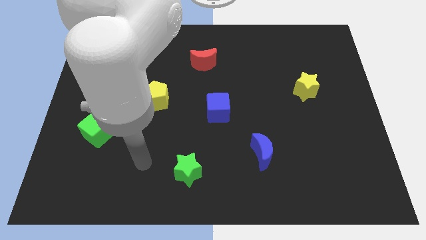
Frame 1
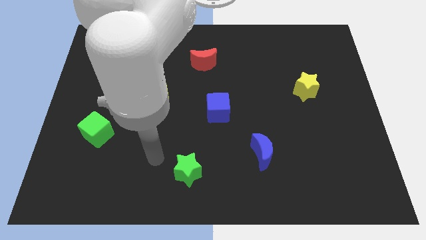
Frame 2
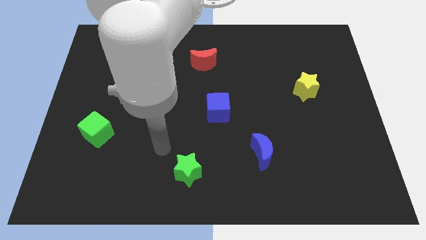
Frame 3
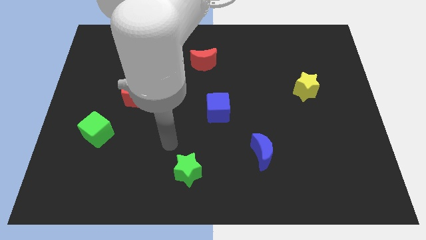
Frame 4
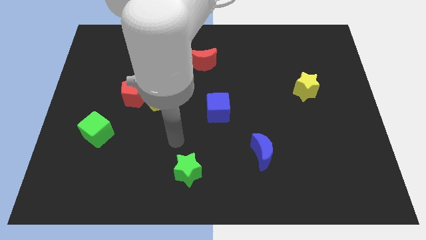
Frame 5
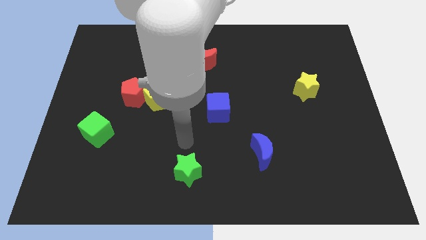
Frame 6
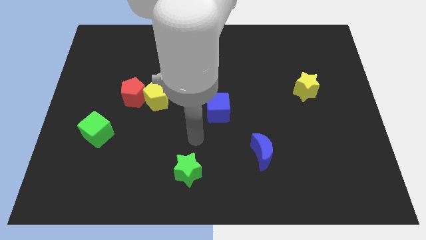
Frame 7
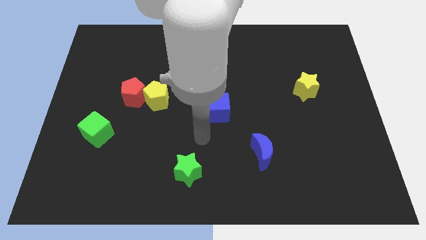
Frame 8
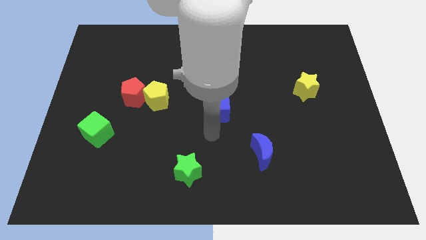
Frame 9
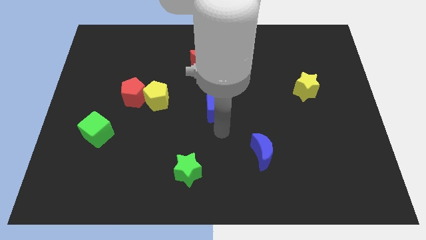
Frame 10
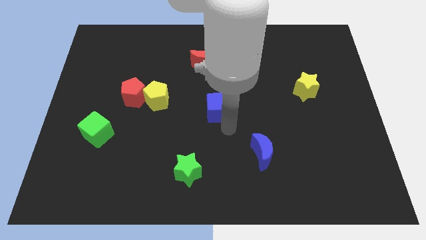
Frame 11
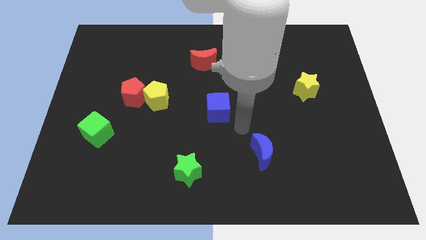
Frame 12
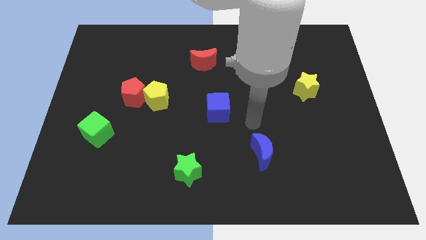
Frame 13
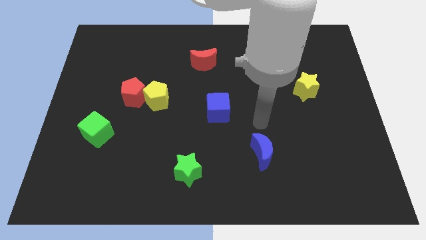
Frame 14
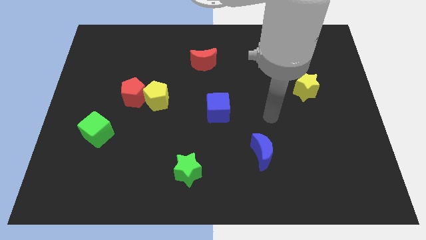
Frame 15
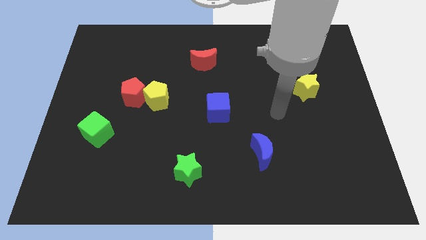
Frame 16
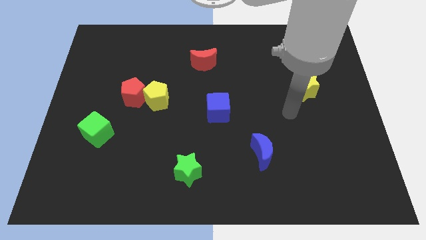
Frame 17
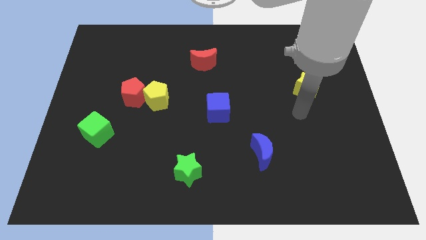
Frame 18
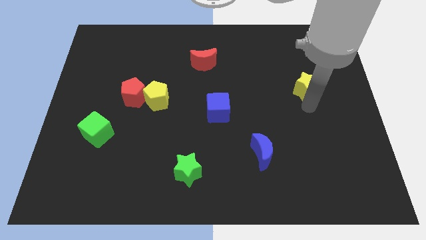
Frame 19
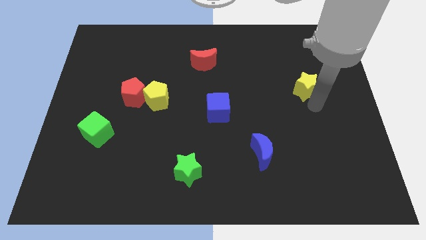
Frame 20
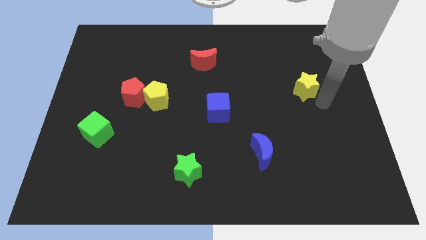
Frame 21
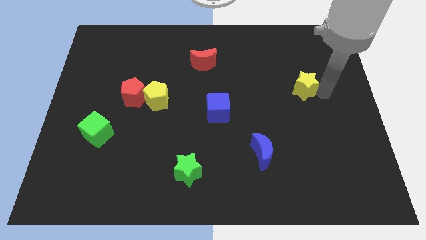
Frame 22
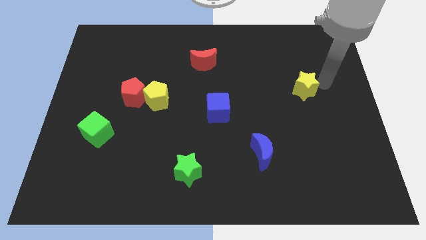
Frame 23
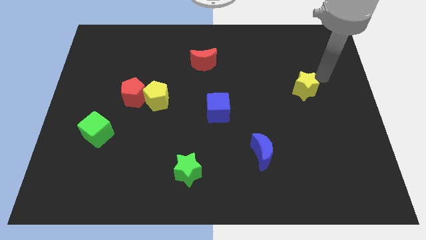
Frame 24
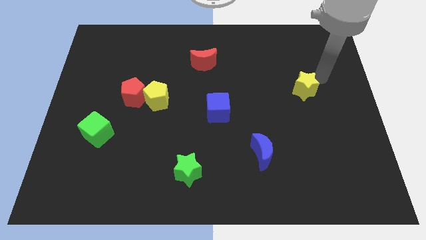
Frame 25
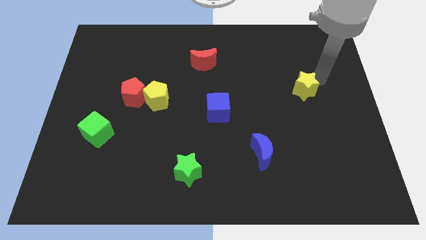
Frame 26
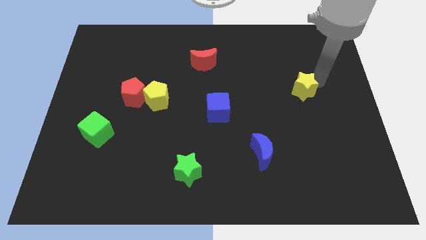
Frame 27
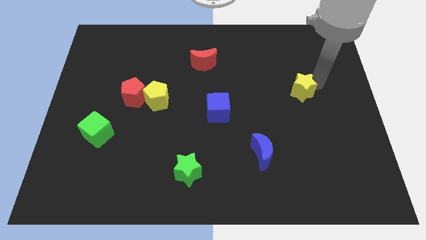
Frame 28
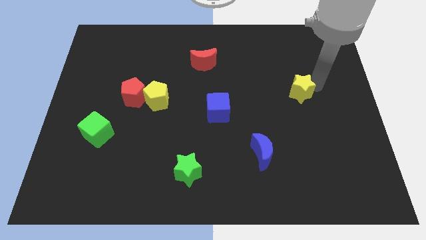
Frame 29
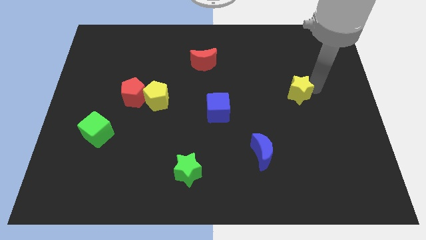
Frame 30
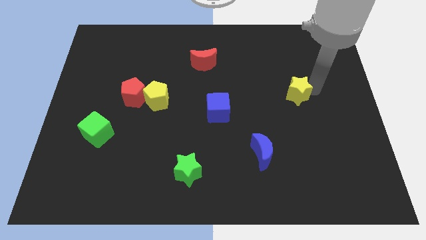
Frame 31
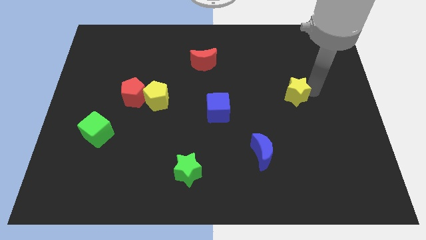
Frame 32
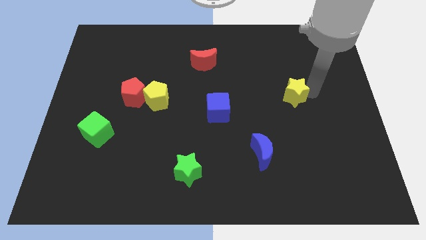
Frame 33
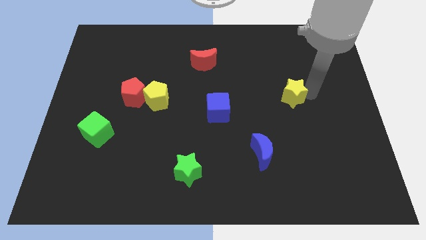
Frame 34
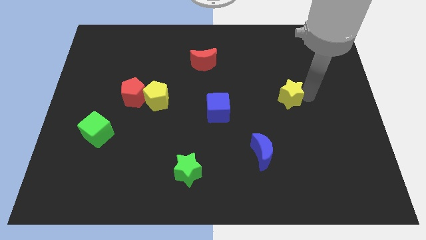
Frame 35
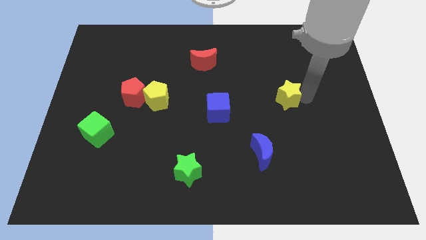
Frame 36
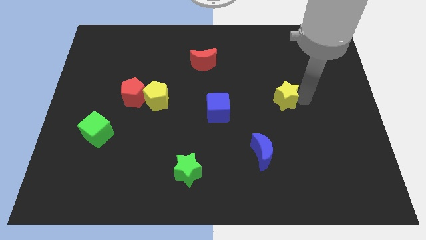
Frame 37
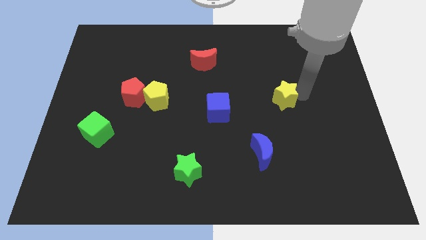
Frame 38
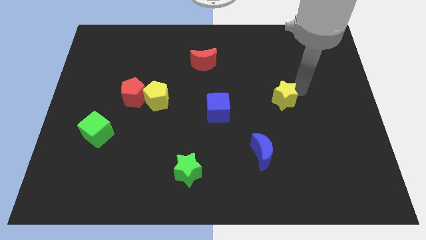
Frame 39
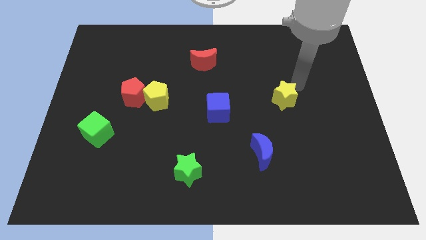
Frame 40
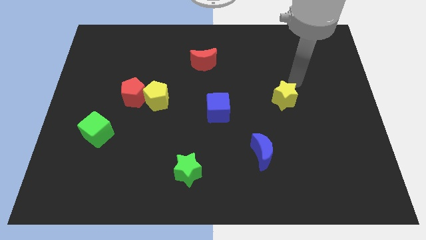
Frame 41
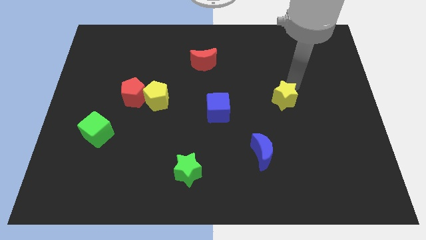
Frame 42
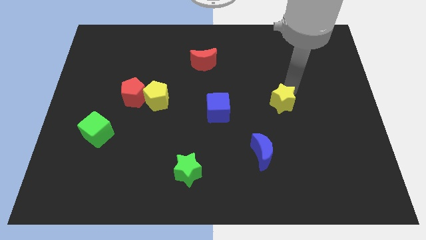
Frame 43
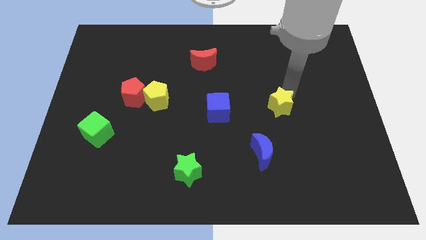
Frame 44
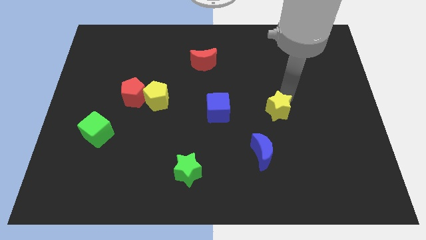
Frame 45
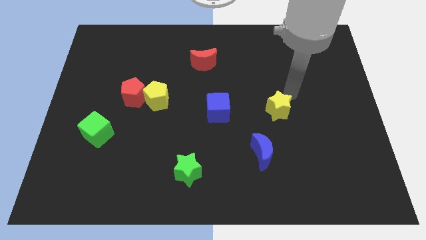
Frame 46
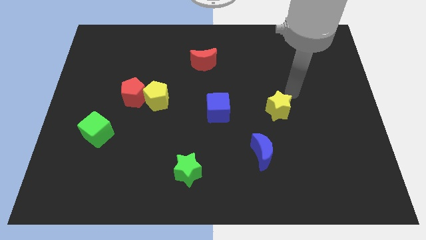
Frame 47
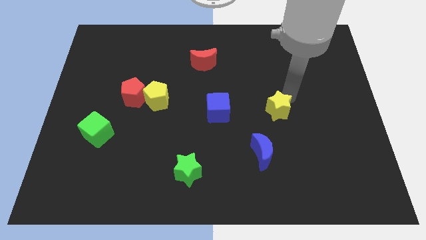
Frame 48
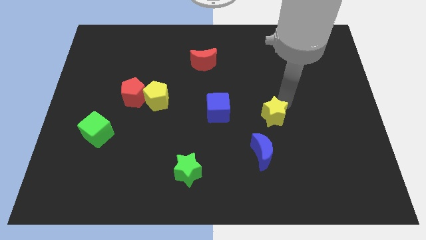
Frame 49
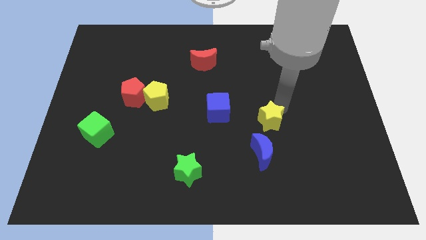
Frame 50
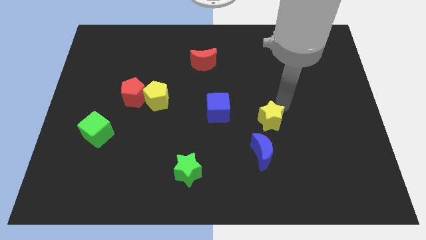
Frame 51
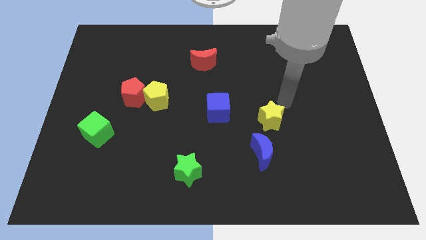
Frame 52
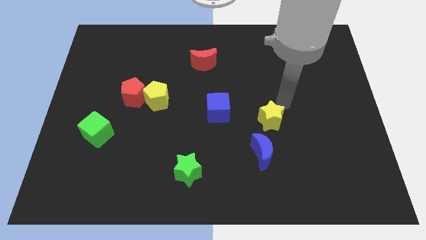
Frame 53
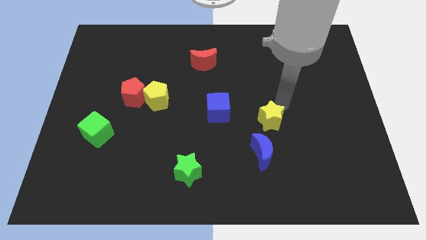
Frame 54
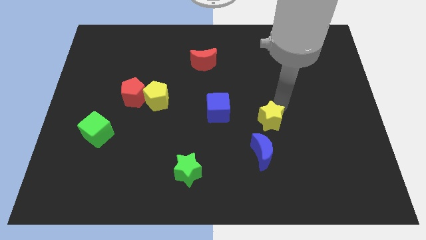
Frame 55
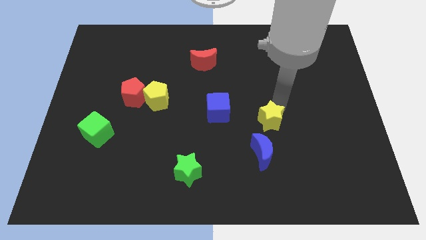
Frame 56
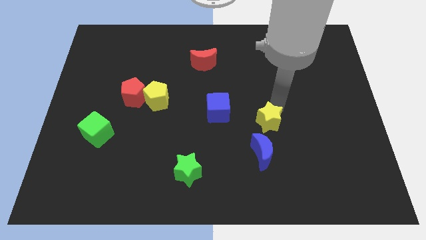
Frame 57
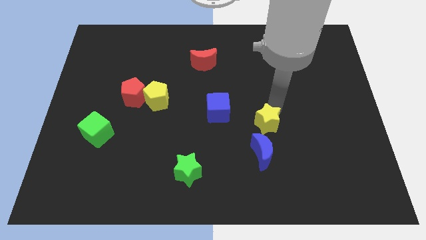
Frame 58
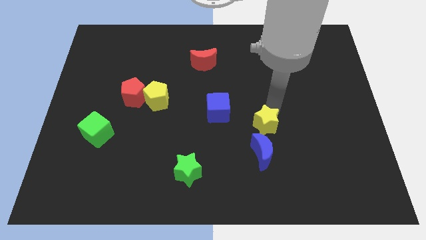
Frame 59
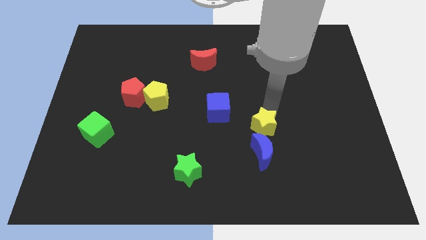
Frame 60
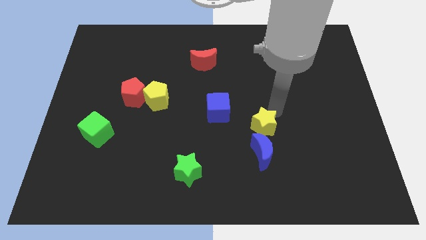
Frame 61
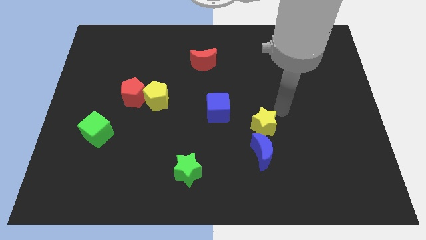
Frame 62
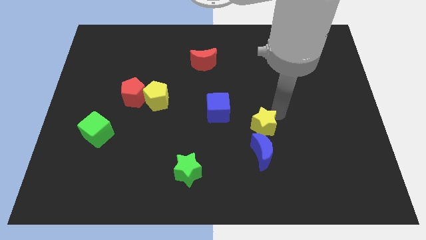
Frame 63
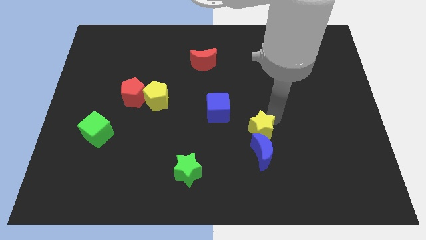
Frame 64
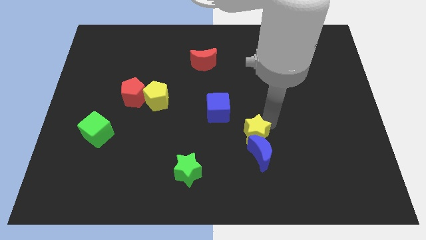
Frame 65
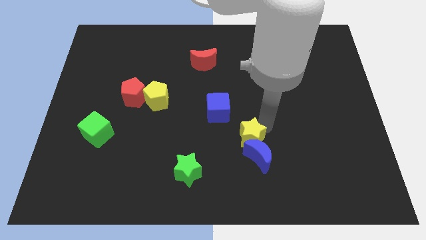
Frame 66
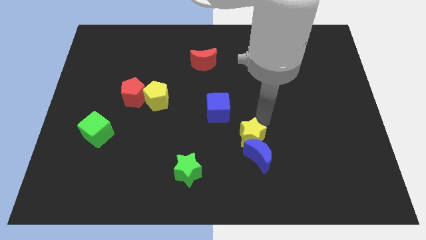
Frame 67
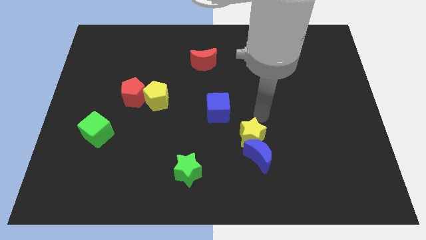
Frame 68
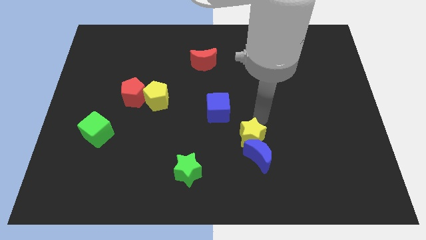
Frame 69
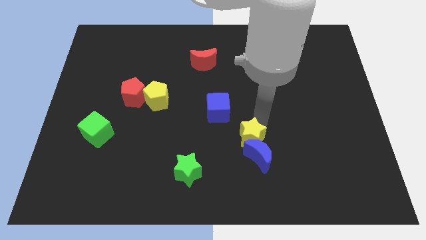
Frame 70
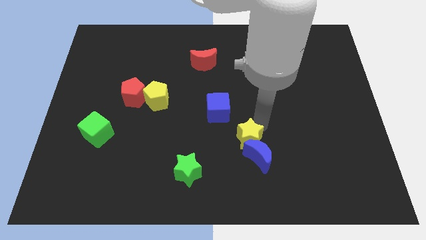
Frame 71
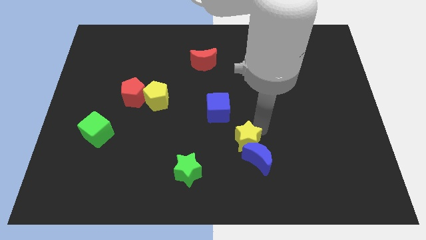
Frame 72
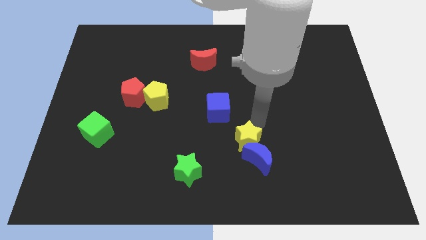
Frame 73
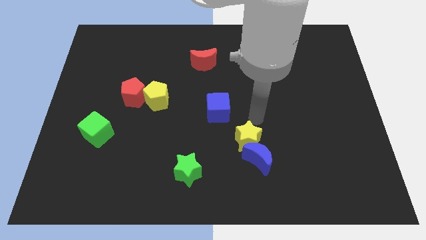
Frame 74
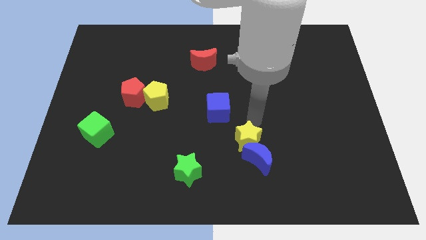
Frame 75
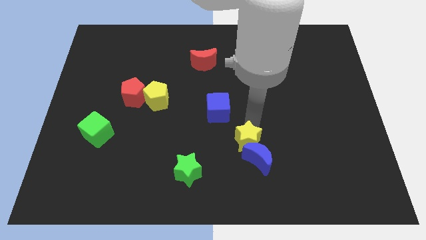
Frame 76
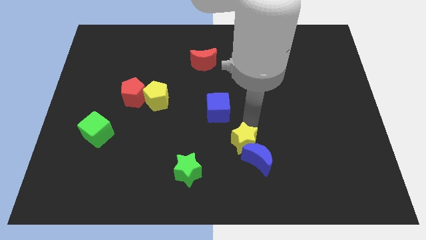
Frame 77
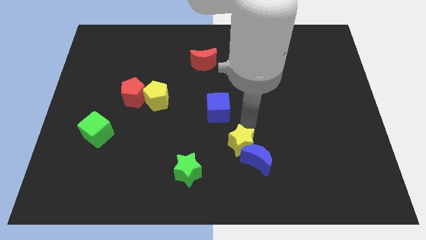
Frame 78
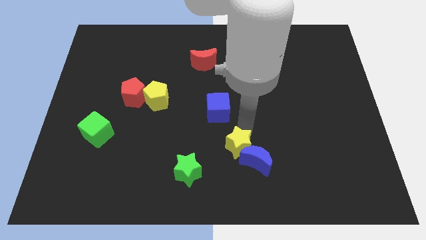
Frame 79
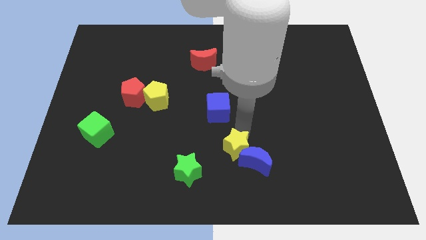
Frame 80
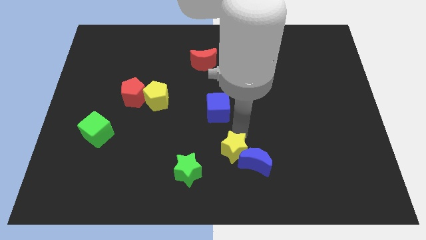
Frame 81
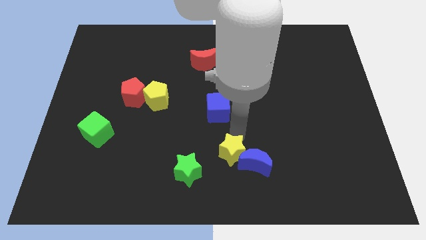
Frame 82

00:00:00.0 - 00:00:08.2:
move the yellow star just right of the green star
